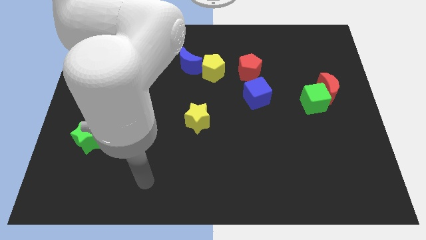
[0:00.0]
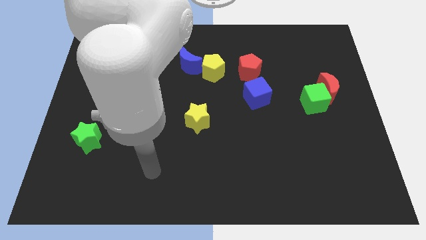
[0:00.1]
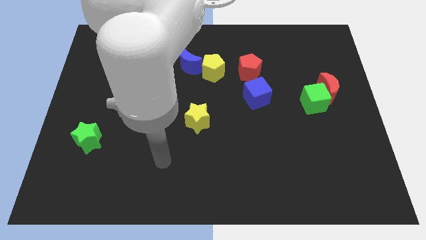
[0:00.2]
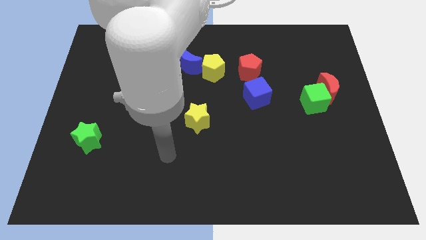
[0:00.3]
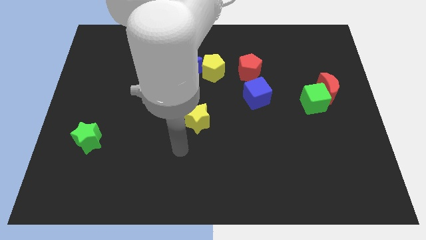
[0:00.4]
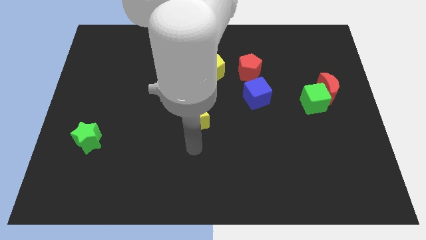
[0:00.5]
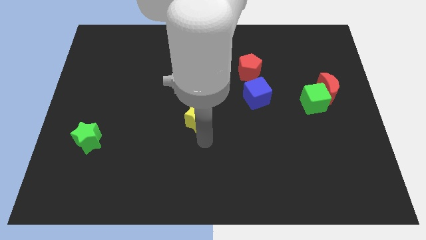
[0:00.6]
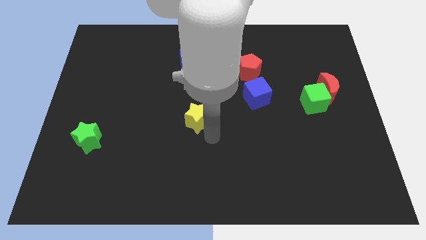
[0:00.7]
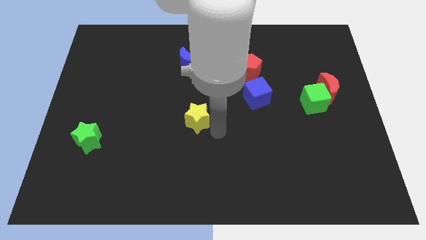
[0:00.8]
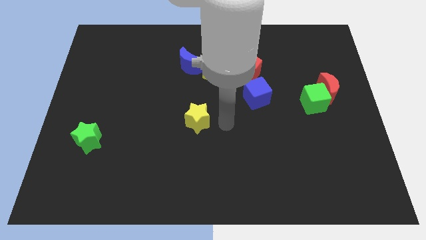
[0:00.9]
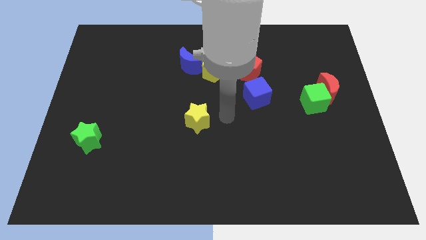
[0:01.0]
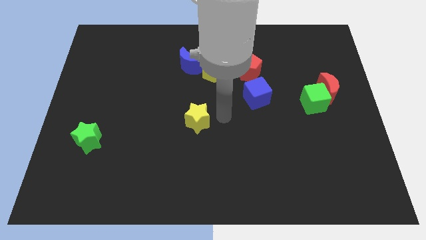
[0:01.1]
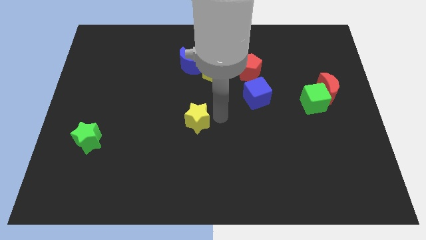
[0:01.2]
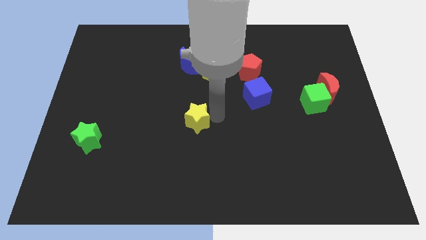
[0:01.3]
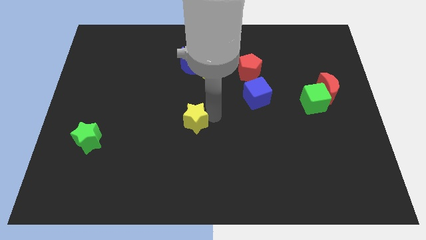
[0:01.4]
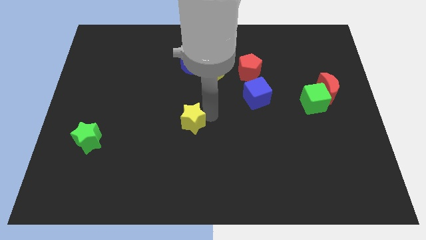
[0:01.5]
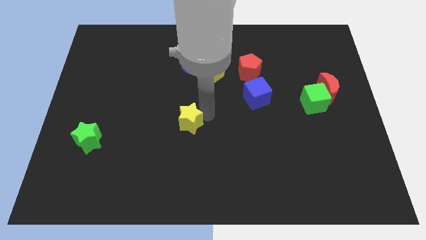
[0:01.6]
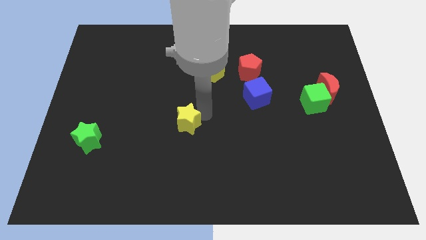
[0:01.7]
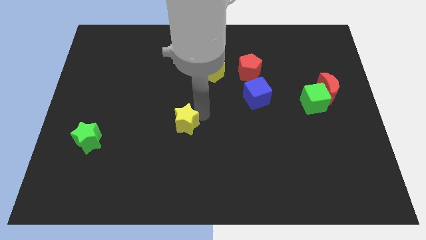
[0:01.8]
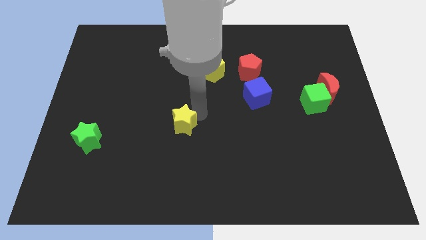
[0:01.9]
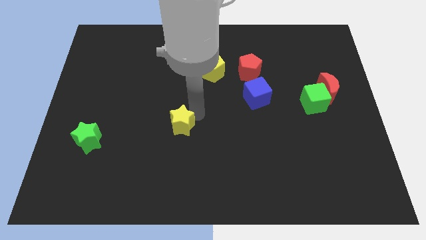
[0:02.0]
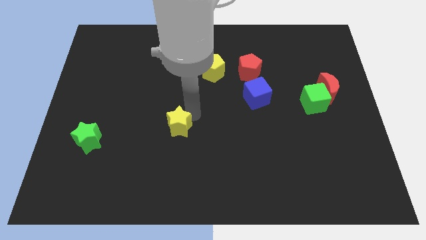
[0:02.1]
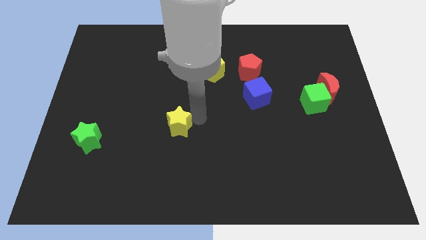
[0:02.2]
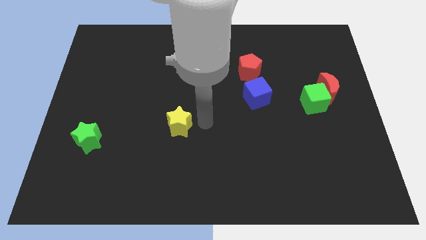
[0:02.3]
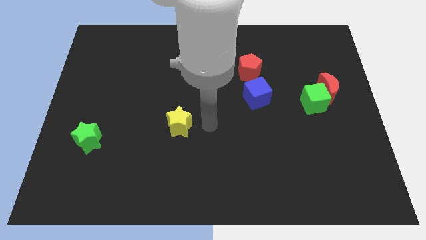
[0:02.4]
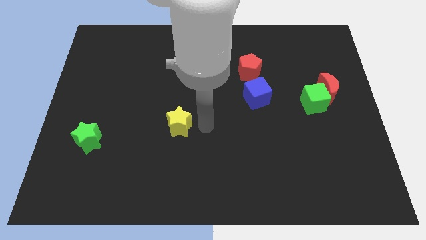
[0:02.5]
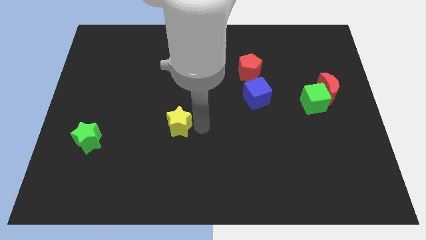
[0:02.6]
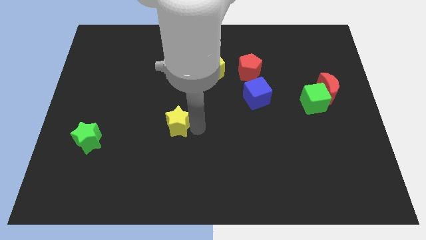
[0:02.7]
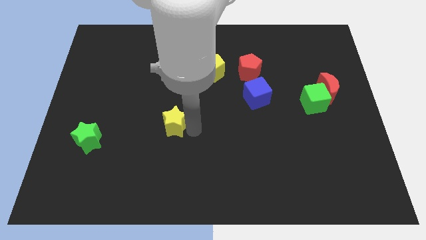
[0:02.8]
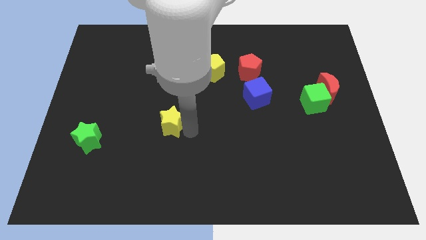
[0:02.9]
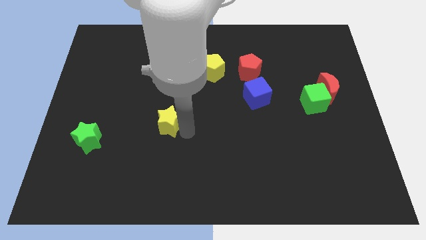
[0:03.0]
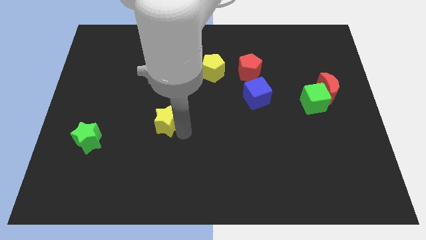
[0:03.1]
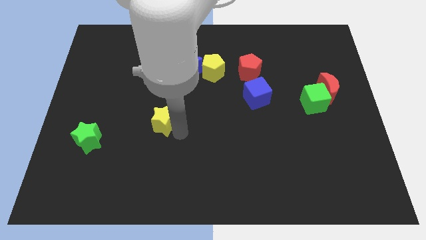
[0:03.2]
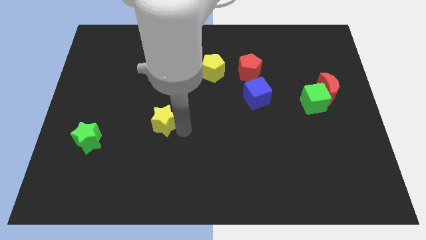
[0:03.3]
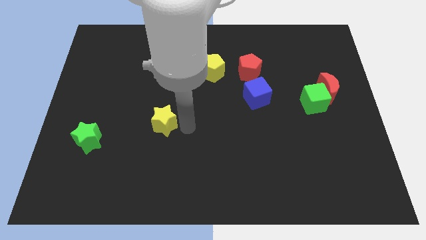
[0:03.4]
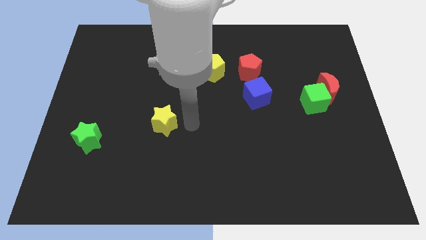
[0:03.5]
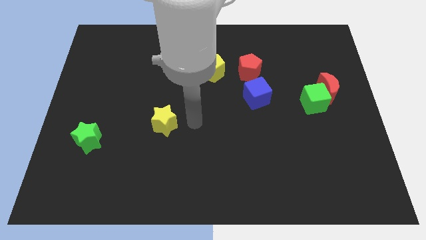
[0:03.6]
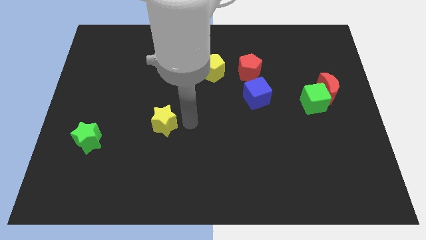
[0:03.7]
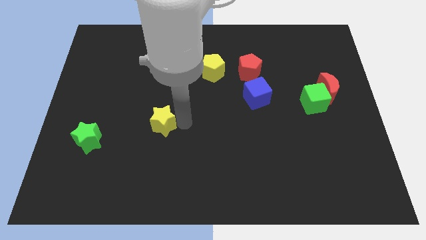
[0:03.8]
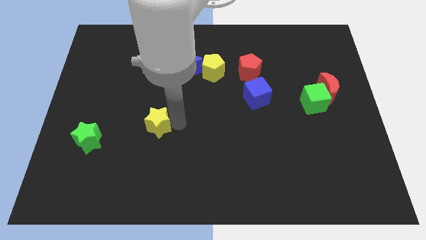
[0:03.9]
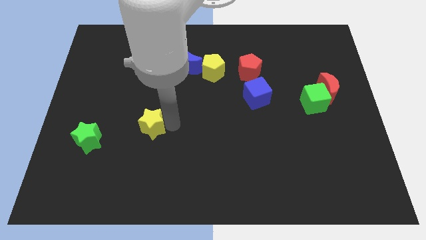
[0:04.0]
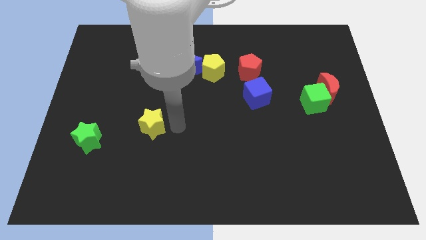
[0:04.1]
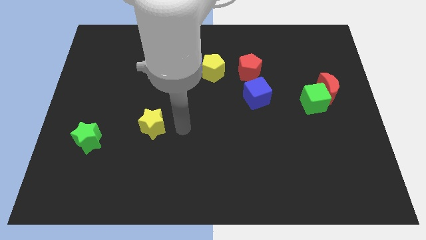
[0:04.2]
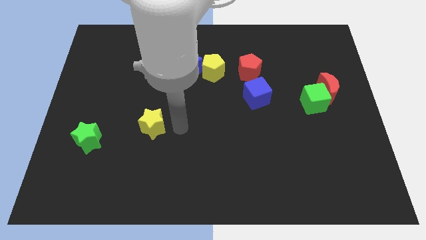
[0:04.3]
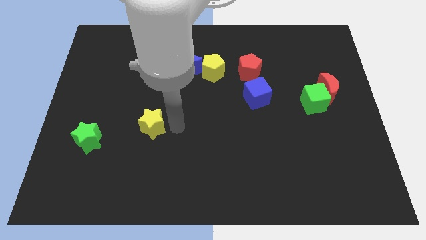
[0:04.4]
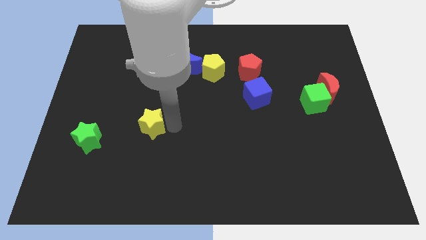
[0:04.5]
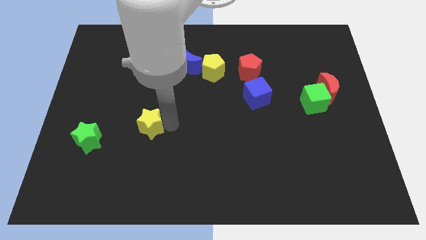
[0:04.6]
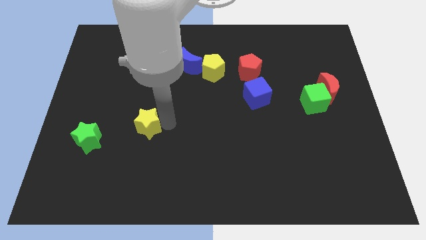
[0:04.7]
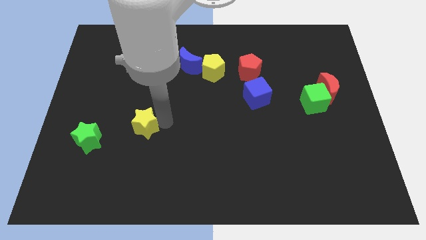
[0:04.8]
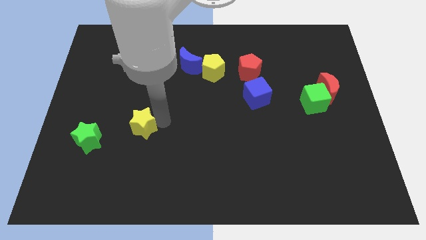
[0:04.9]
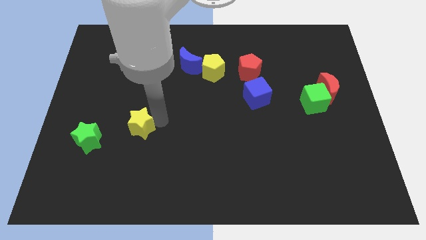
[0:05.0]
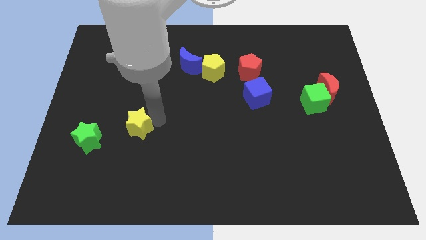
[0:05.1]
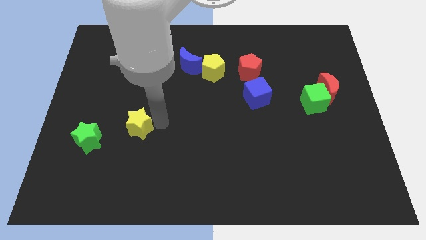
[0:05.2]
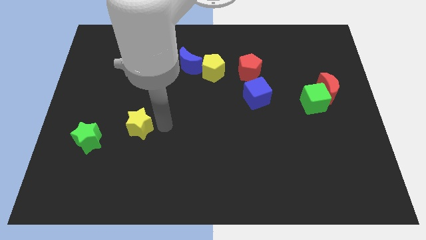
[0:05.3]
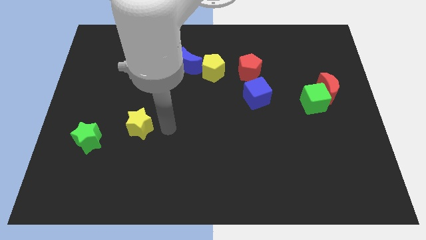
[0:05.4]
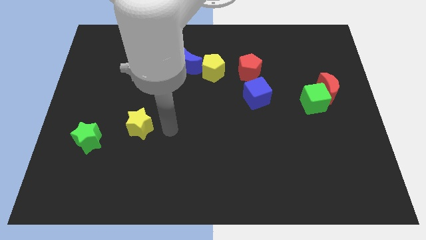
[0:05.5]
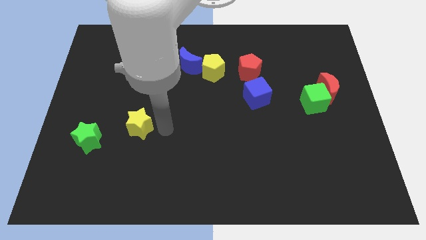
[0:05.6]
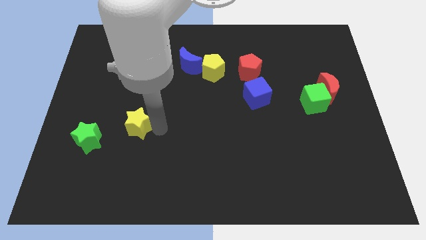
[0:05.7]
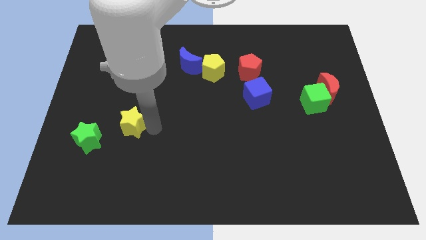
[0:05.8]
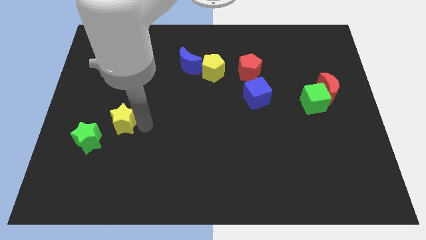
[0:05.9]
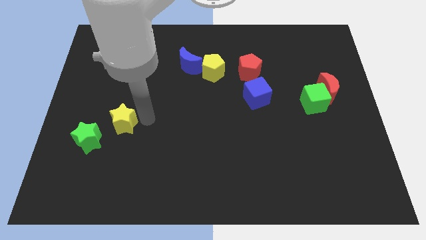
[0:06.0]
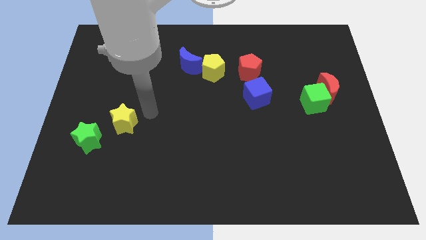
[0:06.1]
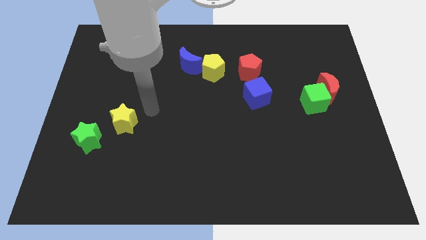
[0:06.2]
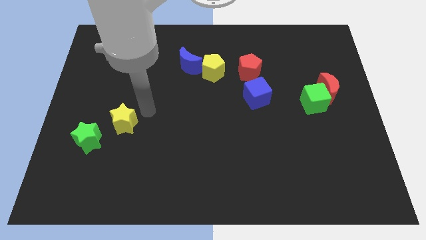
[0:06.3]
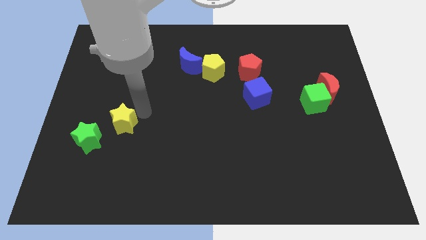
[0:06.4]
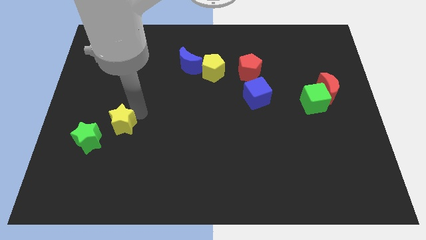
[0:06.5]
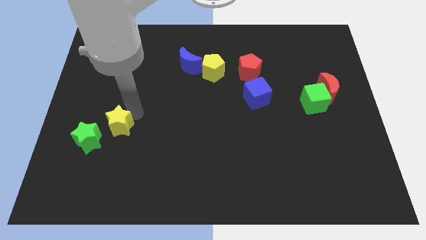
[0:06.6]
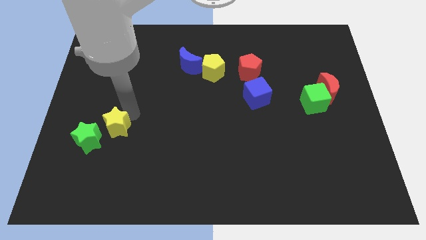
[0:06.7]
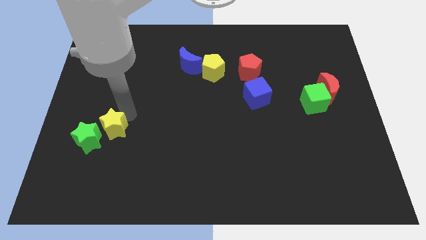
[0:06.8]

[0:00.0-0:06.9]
move the yellow star close to the green star

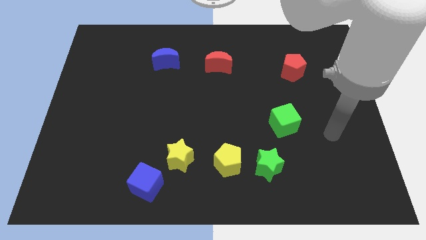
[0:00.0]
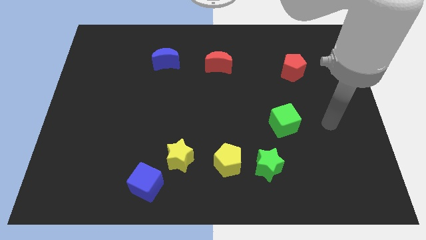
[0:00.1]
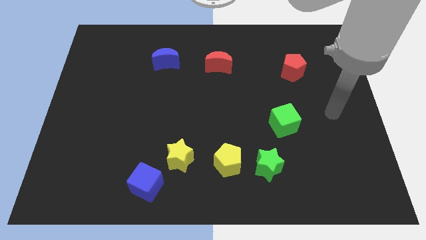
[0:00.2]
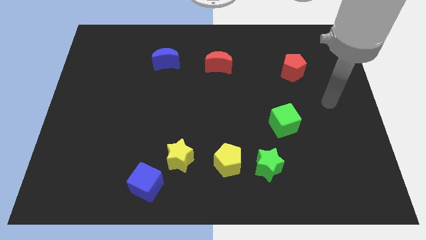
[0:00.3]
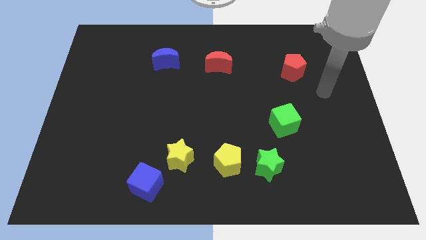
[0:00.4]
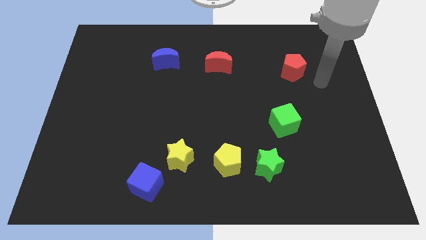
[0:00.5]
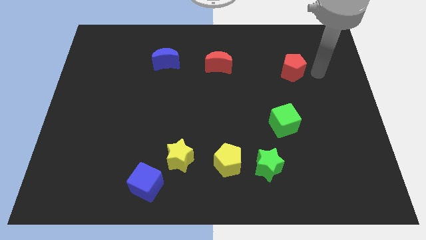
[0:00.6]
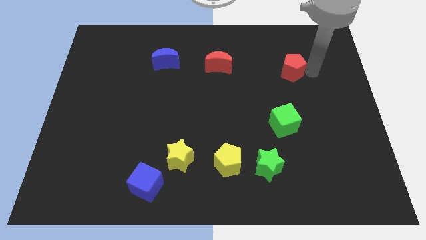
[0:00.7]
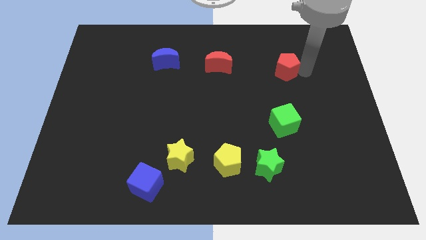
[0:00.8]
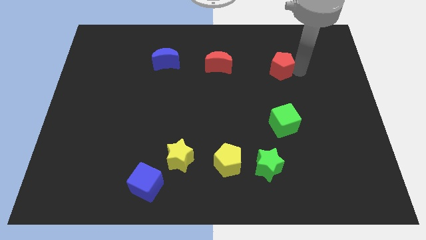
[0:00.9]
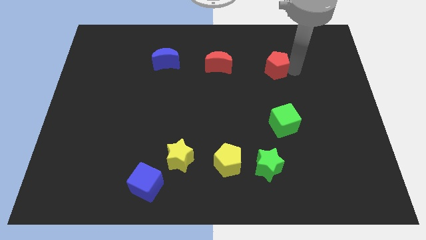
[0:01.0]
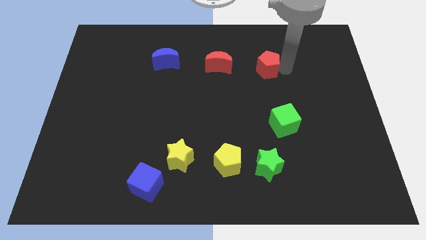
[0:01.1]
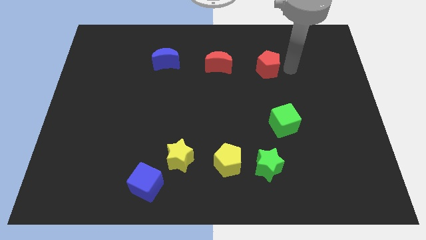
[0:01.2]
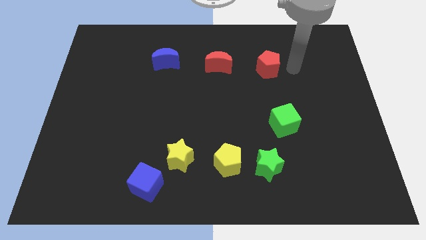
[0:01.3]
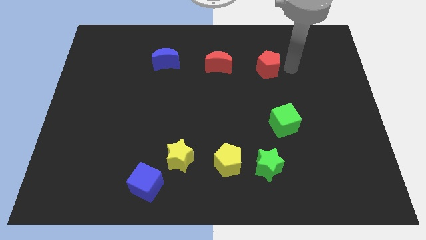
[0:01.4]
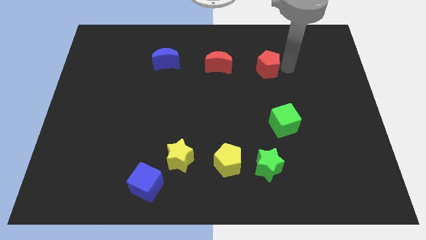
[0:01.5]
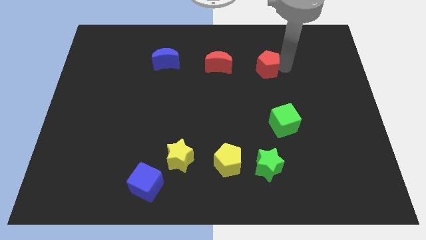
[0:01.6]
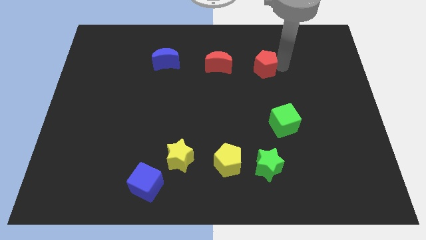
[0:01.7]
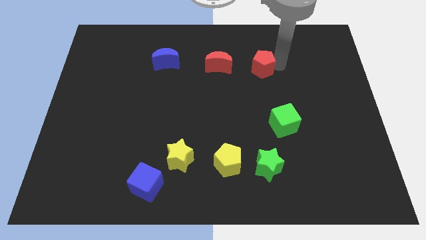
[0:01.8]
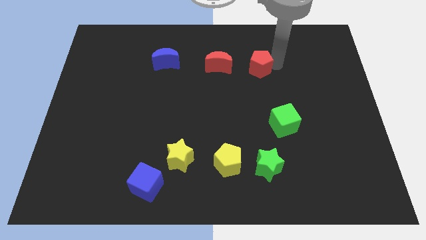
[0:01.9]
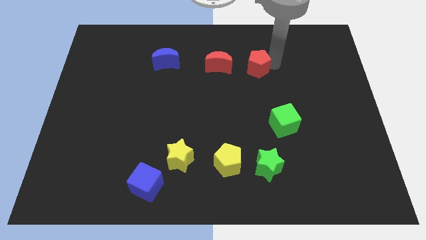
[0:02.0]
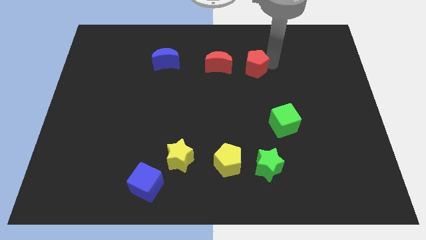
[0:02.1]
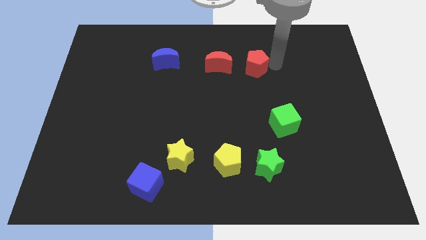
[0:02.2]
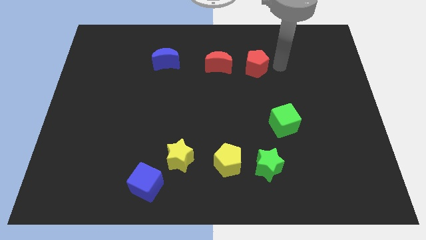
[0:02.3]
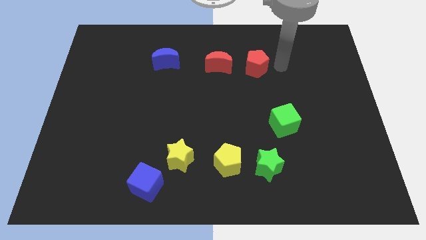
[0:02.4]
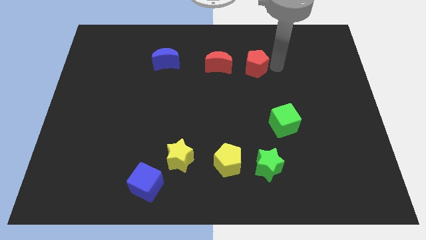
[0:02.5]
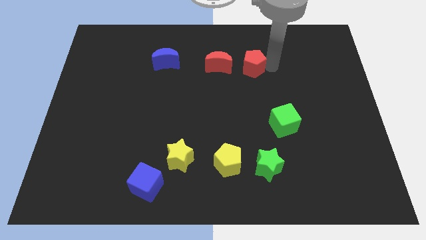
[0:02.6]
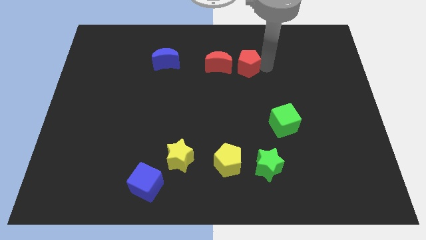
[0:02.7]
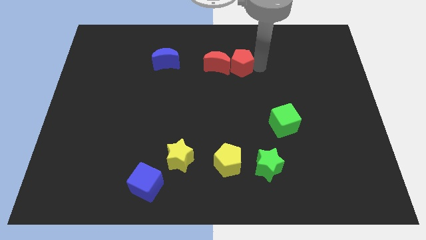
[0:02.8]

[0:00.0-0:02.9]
push the red pentagon next to the red moon
